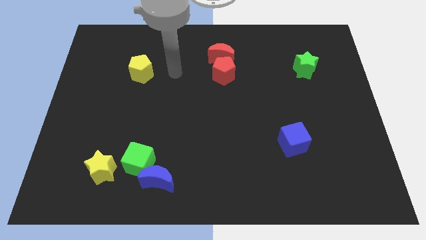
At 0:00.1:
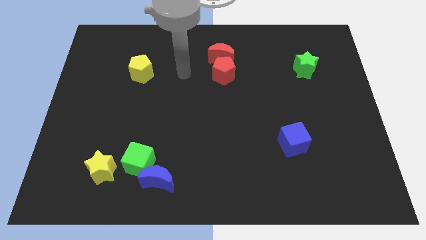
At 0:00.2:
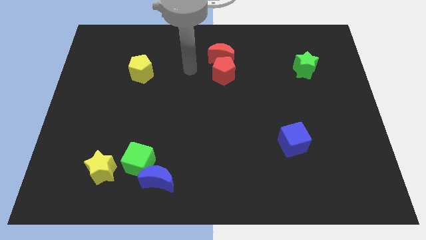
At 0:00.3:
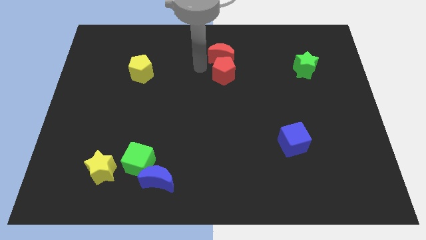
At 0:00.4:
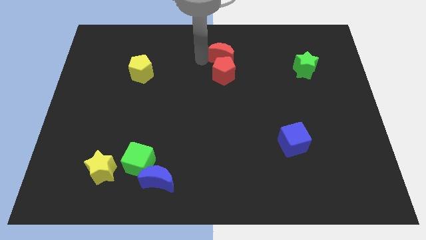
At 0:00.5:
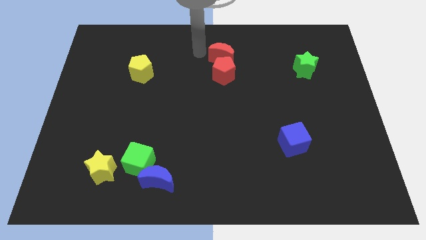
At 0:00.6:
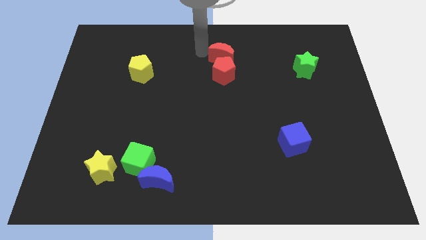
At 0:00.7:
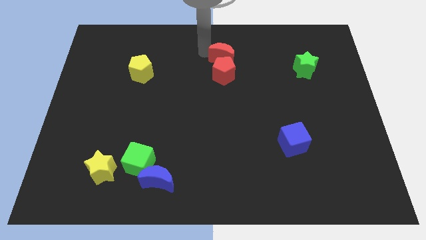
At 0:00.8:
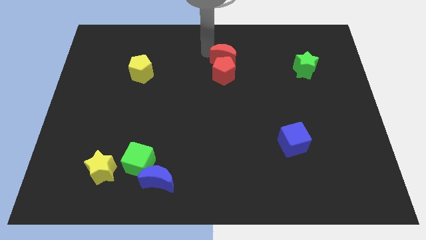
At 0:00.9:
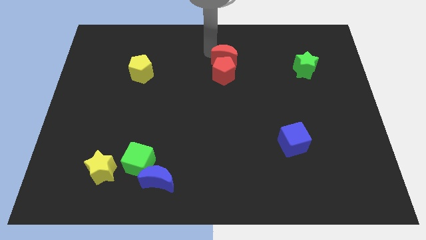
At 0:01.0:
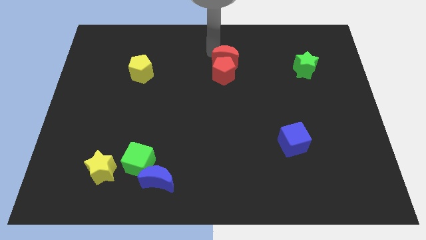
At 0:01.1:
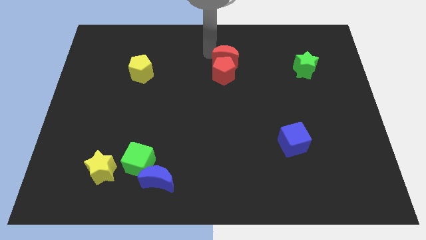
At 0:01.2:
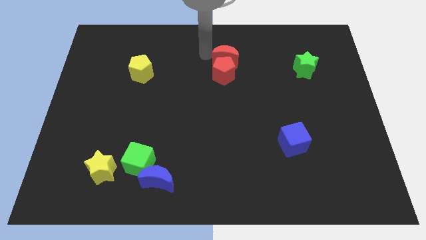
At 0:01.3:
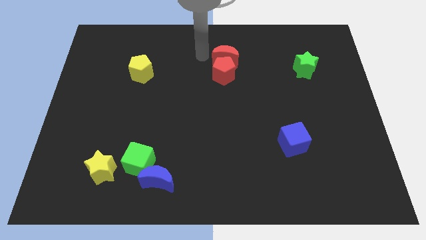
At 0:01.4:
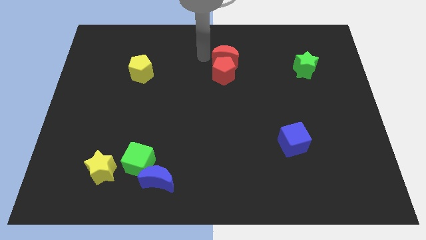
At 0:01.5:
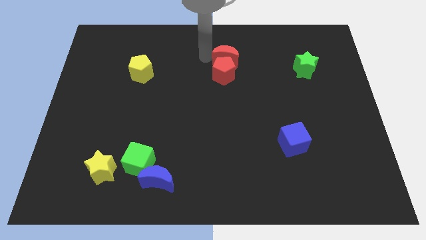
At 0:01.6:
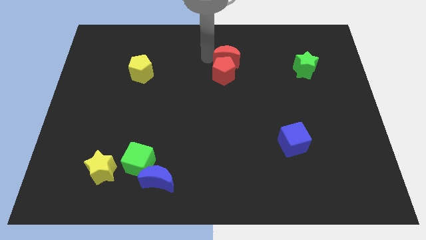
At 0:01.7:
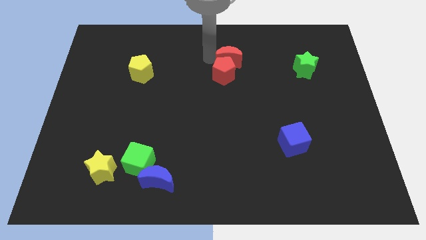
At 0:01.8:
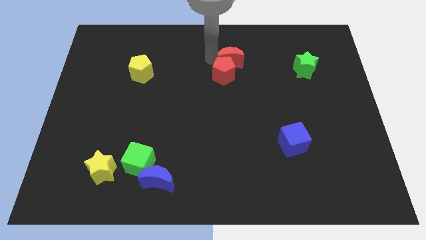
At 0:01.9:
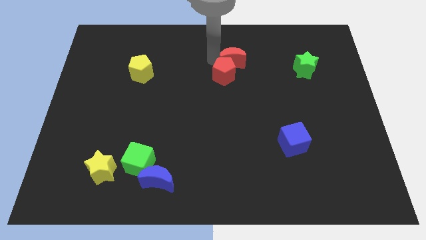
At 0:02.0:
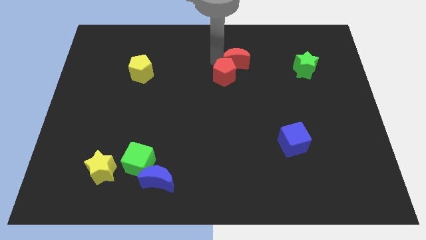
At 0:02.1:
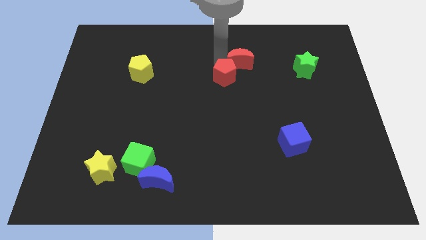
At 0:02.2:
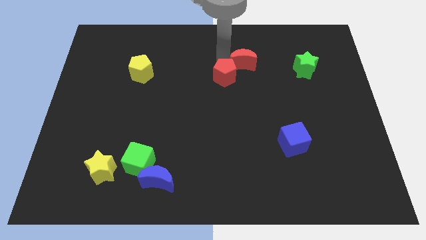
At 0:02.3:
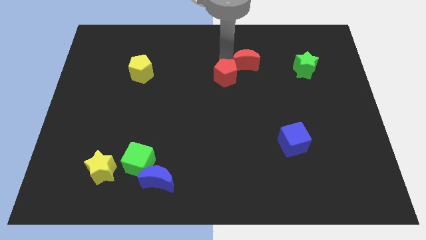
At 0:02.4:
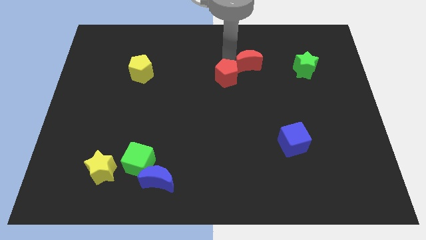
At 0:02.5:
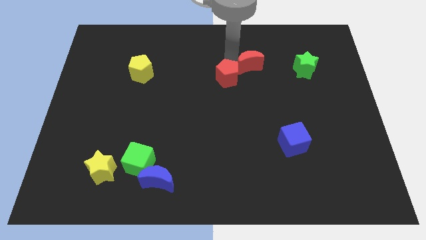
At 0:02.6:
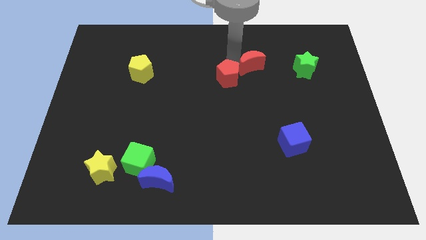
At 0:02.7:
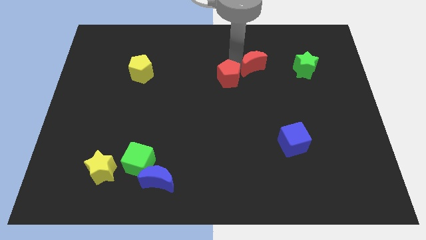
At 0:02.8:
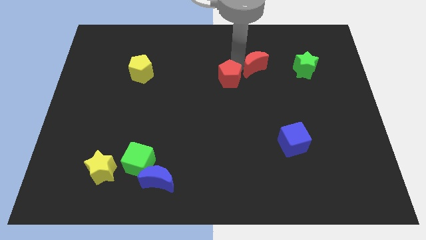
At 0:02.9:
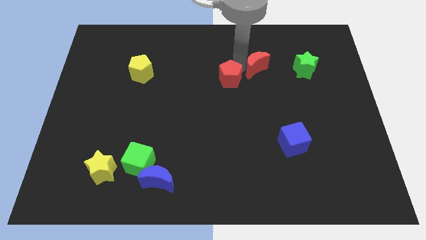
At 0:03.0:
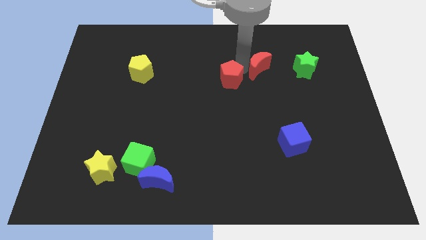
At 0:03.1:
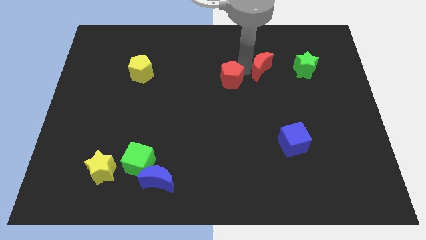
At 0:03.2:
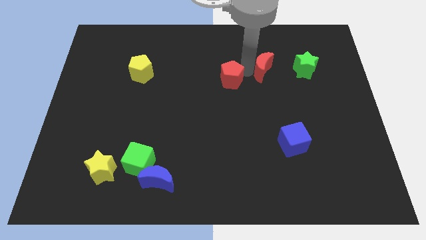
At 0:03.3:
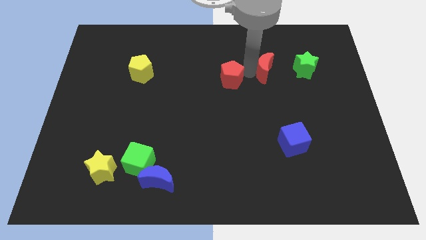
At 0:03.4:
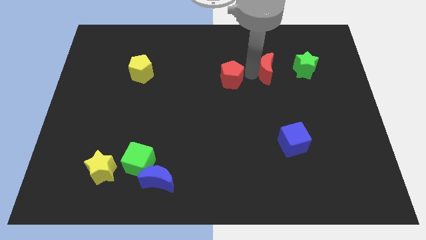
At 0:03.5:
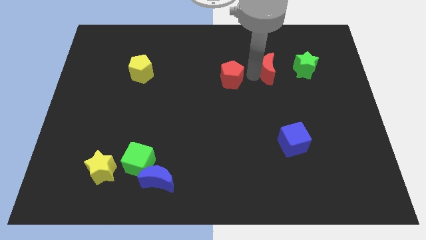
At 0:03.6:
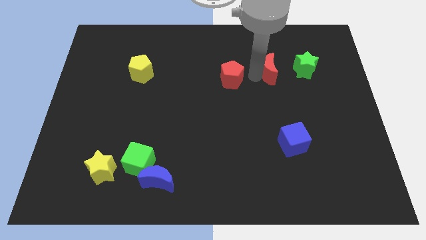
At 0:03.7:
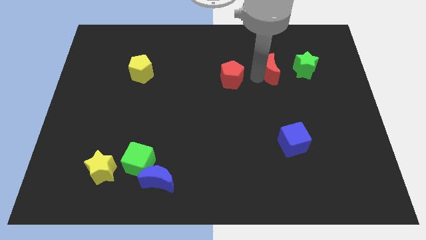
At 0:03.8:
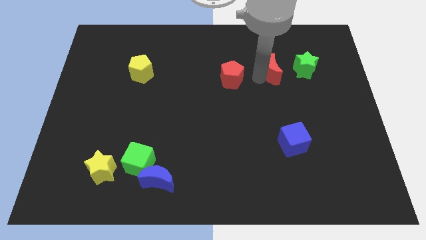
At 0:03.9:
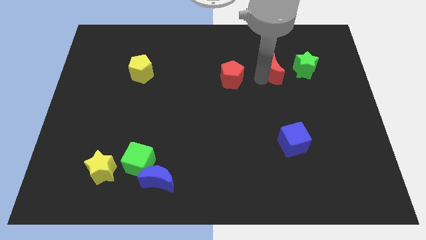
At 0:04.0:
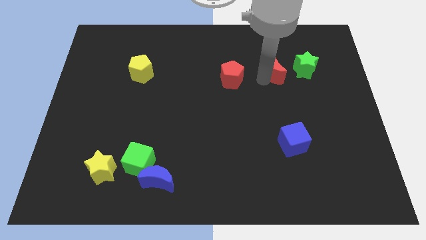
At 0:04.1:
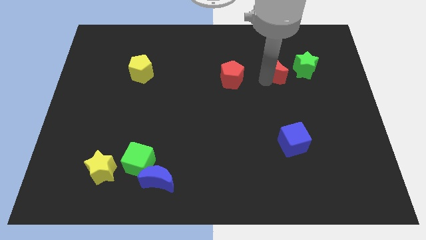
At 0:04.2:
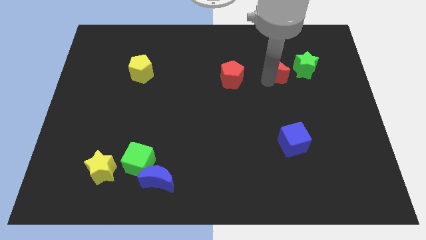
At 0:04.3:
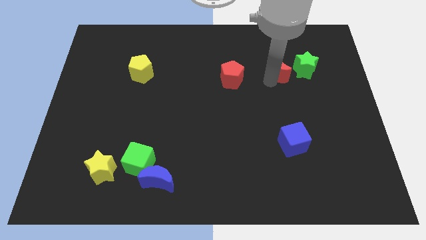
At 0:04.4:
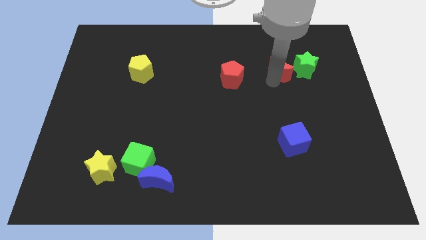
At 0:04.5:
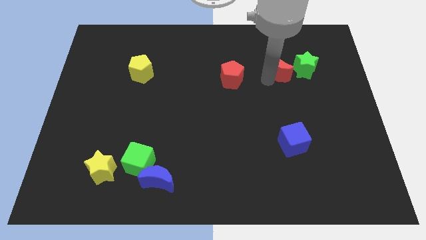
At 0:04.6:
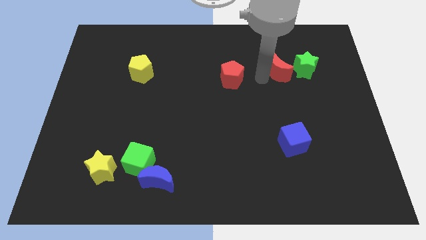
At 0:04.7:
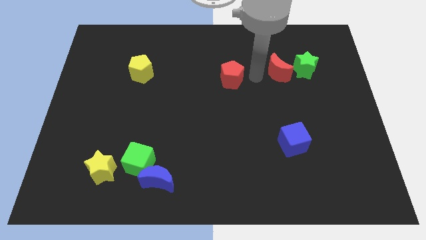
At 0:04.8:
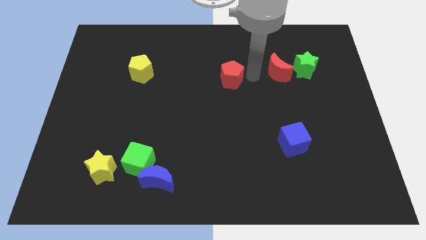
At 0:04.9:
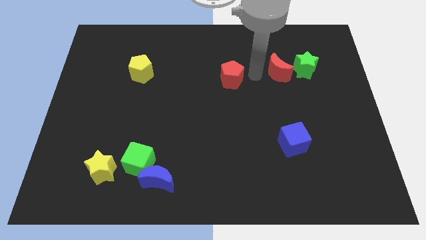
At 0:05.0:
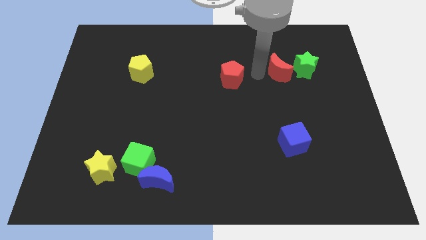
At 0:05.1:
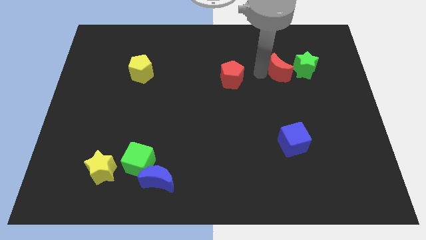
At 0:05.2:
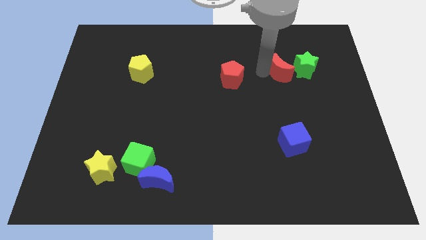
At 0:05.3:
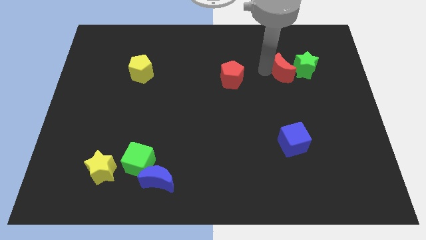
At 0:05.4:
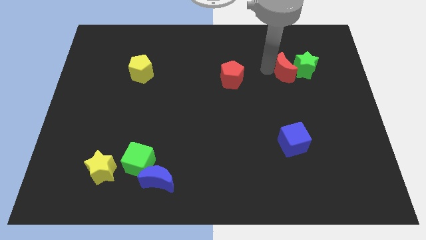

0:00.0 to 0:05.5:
move the red moon towards the green star

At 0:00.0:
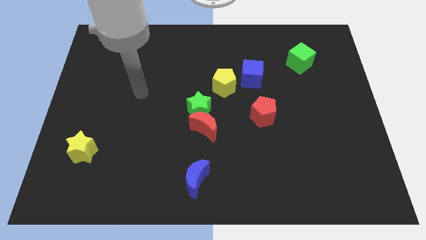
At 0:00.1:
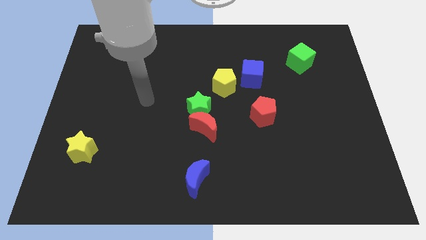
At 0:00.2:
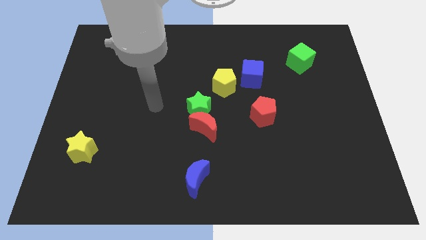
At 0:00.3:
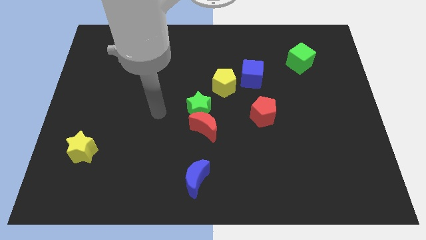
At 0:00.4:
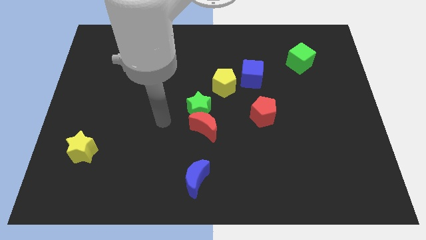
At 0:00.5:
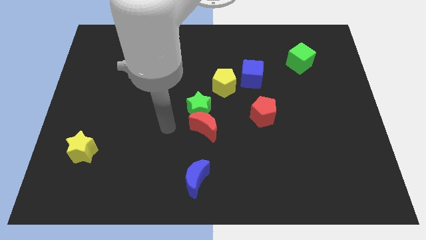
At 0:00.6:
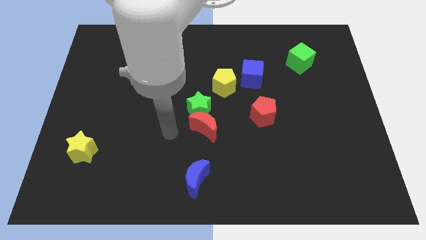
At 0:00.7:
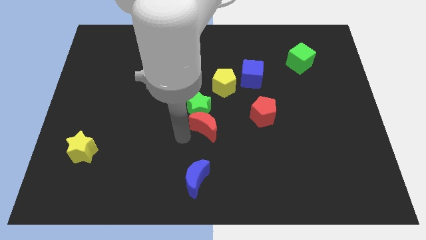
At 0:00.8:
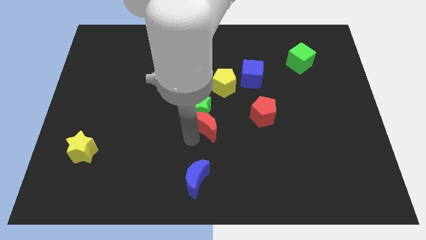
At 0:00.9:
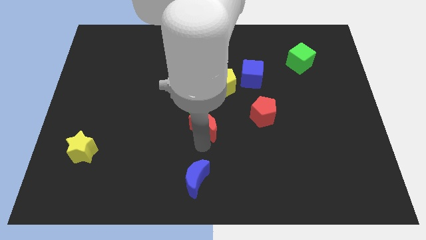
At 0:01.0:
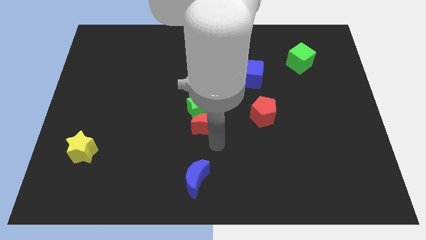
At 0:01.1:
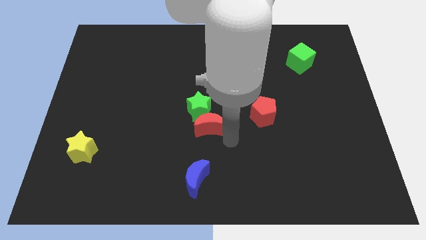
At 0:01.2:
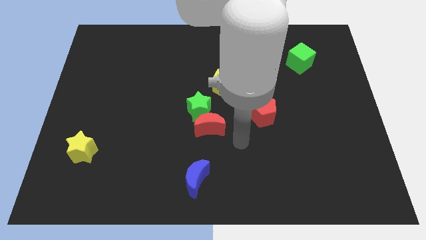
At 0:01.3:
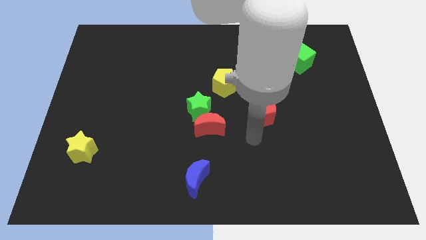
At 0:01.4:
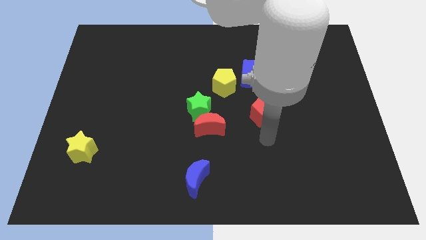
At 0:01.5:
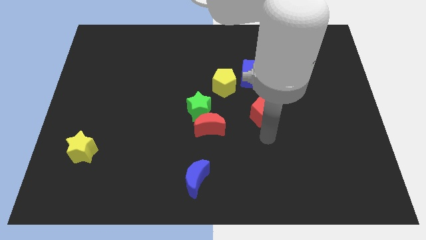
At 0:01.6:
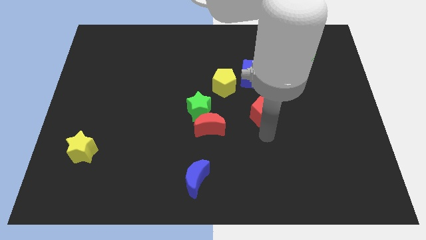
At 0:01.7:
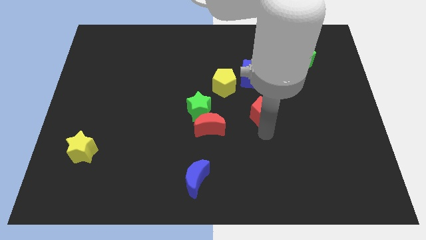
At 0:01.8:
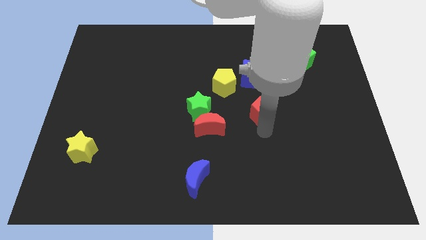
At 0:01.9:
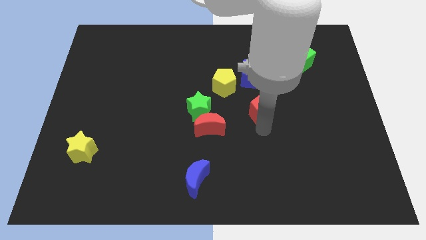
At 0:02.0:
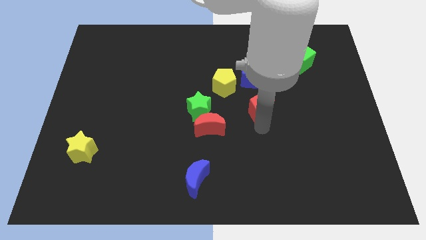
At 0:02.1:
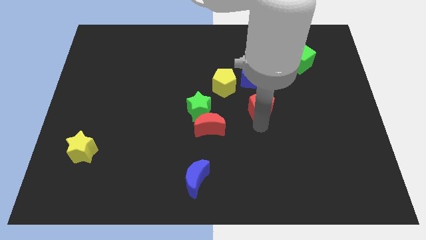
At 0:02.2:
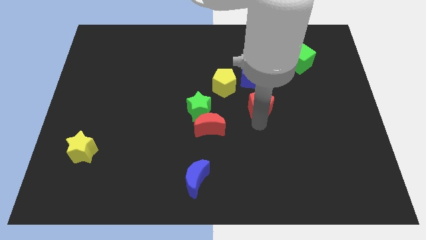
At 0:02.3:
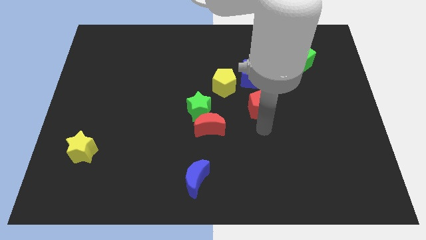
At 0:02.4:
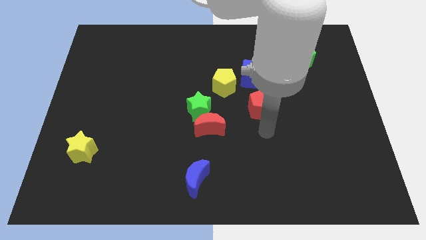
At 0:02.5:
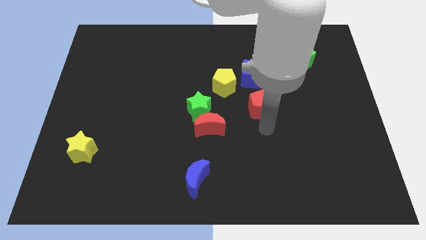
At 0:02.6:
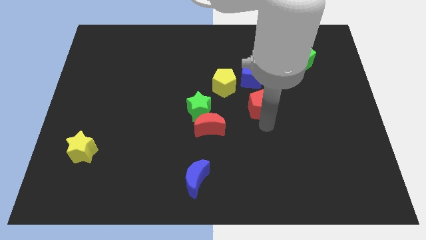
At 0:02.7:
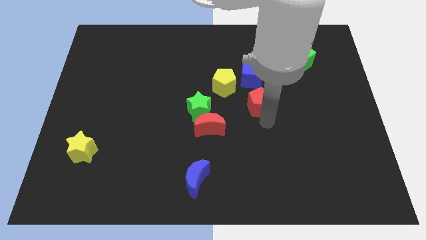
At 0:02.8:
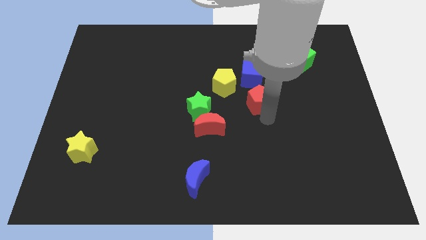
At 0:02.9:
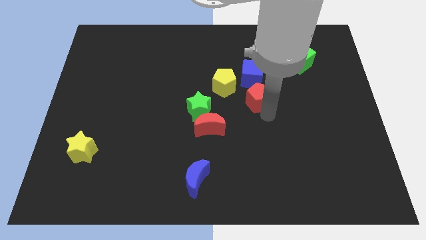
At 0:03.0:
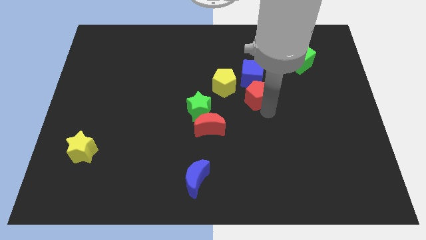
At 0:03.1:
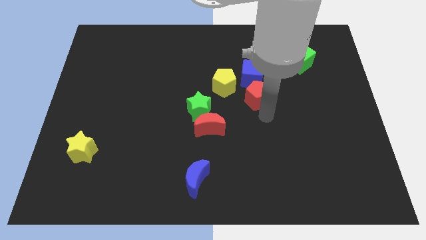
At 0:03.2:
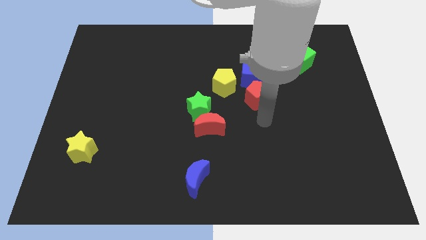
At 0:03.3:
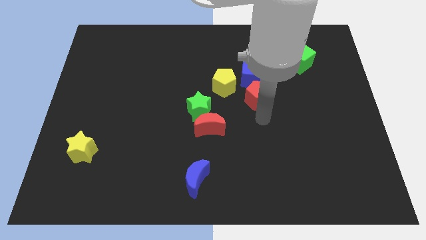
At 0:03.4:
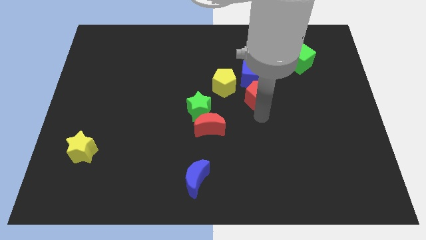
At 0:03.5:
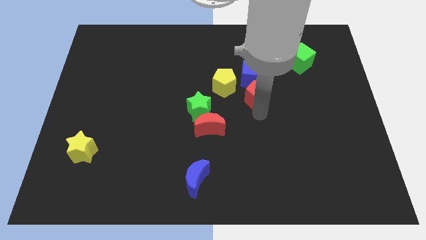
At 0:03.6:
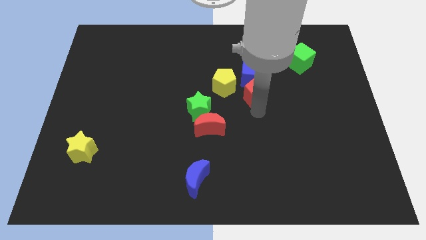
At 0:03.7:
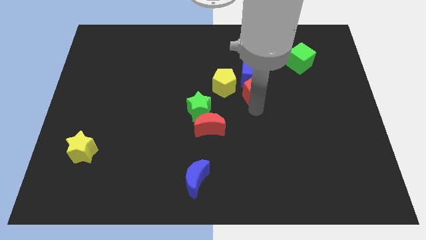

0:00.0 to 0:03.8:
move the red pentagon next to the blue cube
